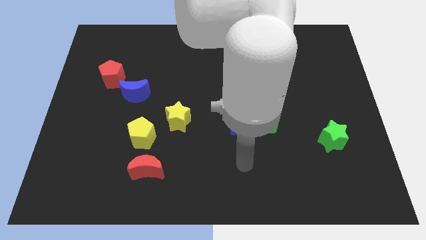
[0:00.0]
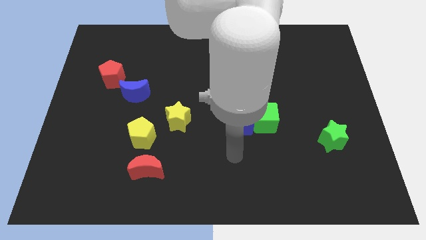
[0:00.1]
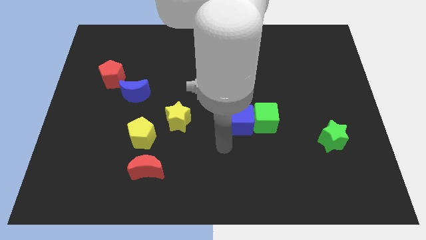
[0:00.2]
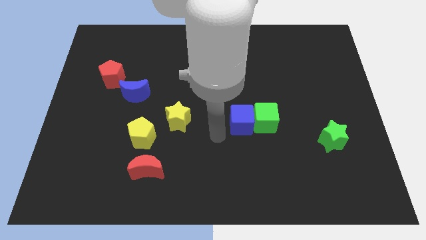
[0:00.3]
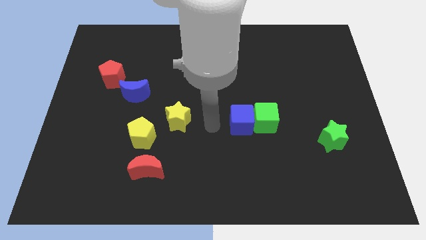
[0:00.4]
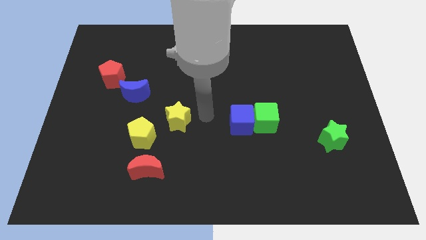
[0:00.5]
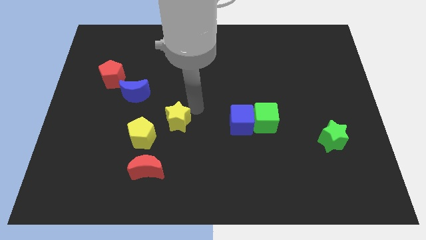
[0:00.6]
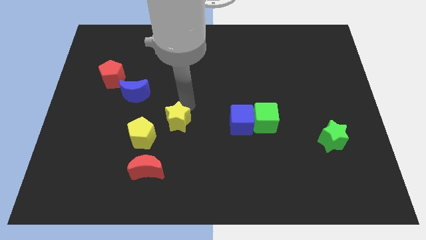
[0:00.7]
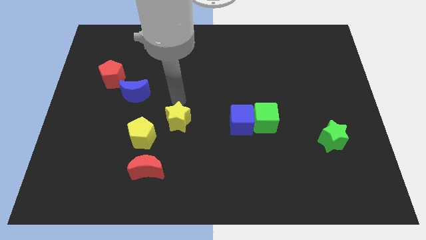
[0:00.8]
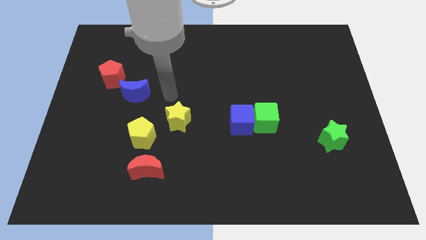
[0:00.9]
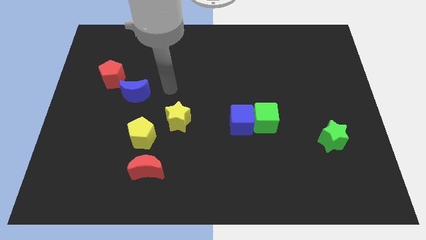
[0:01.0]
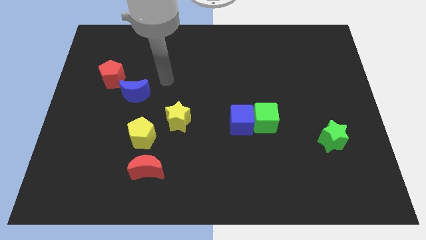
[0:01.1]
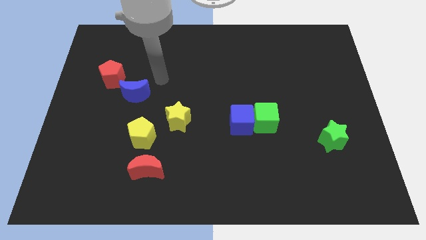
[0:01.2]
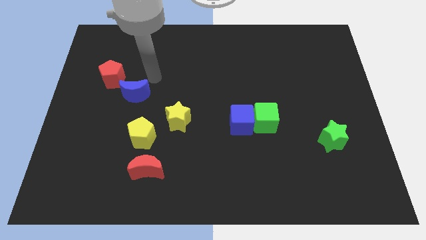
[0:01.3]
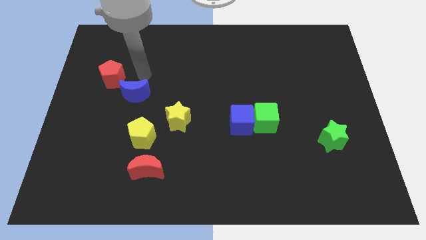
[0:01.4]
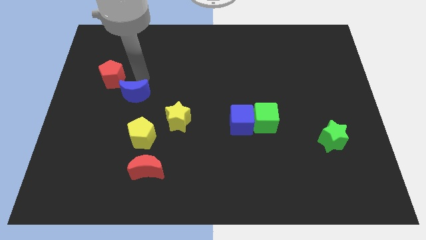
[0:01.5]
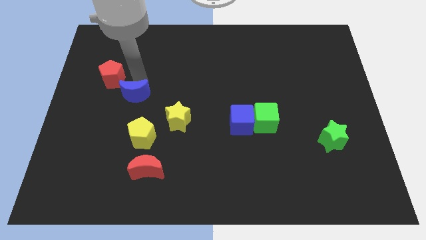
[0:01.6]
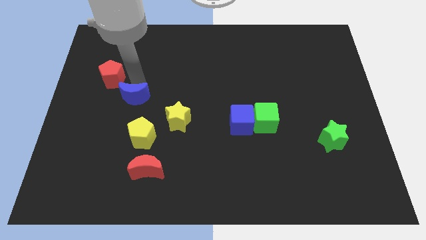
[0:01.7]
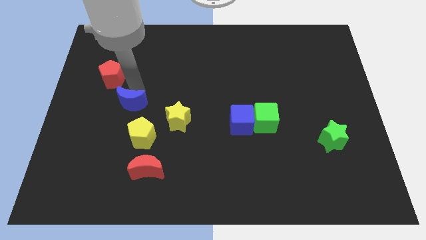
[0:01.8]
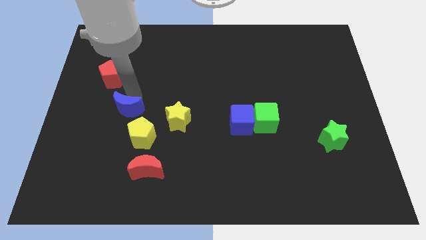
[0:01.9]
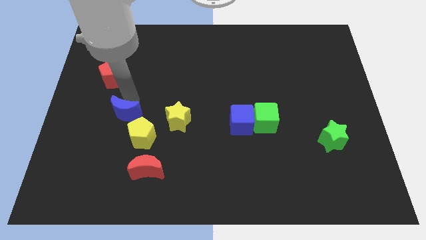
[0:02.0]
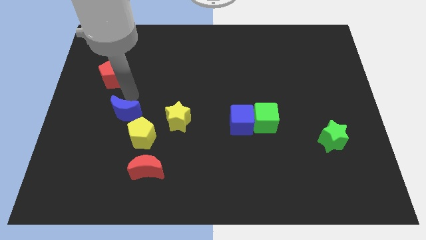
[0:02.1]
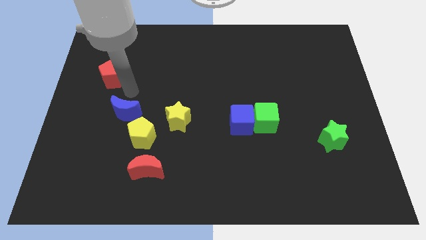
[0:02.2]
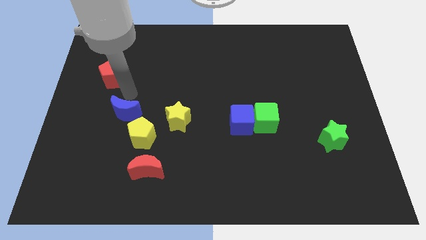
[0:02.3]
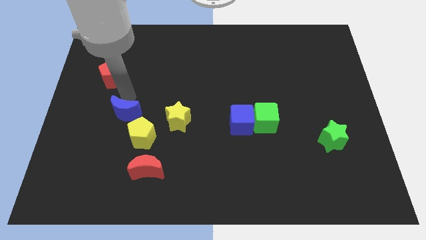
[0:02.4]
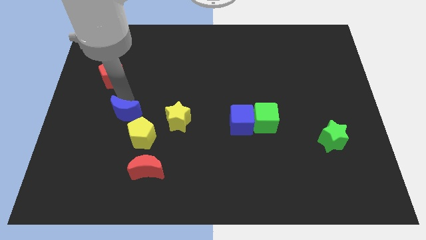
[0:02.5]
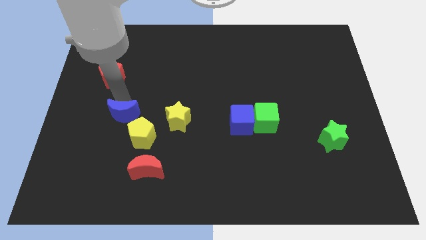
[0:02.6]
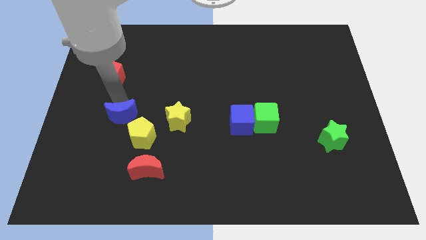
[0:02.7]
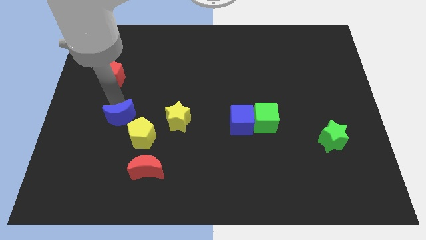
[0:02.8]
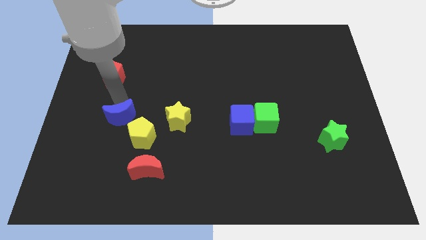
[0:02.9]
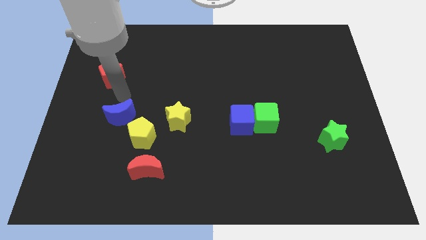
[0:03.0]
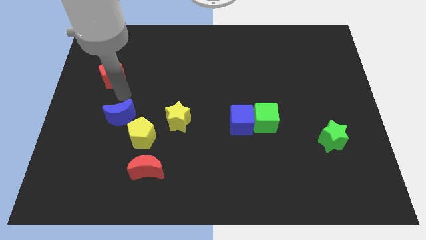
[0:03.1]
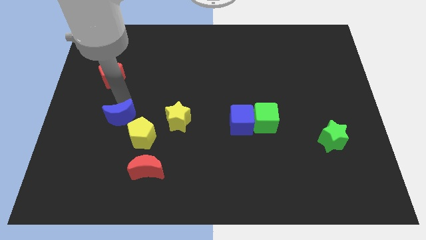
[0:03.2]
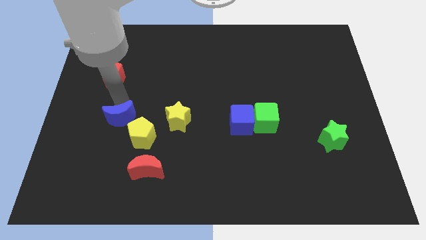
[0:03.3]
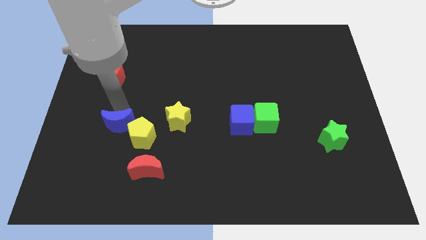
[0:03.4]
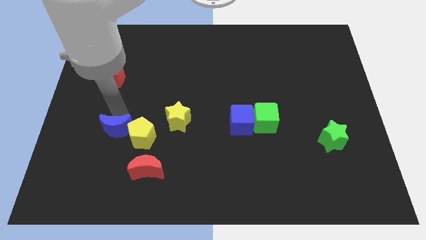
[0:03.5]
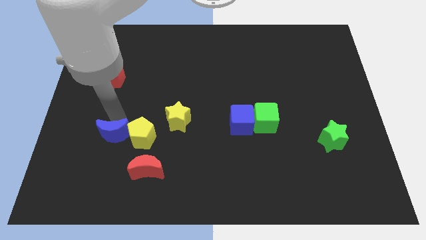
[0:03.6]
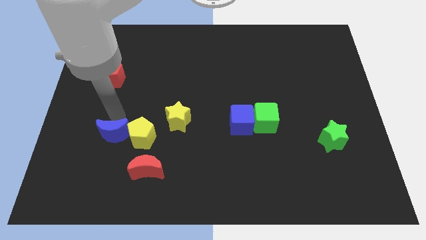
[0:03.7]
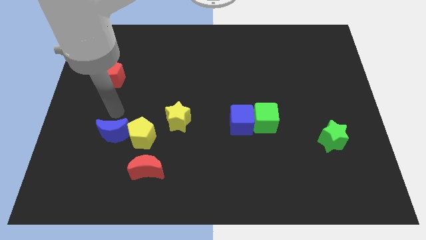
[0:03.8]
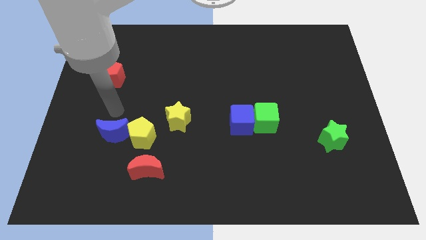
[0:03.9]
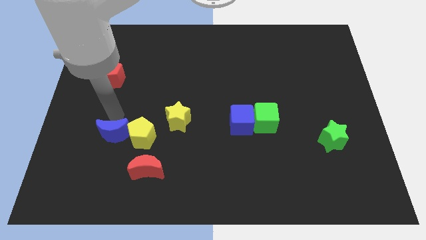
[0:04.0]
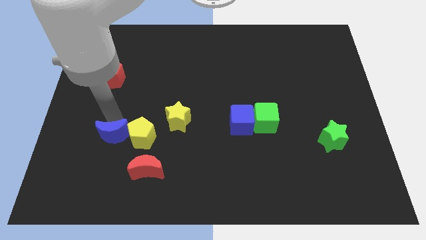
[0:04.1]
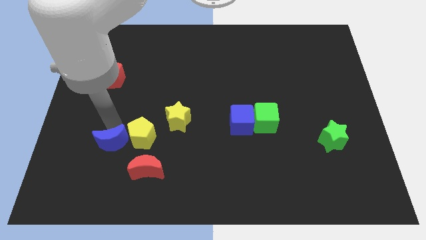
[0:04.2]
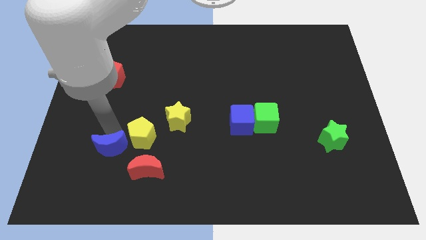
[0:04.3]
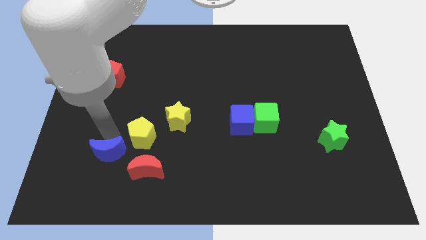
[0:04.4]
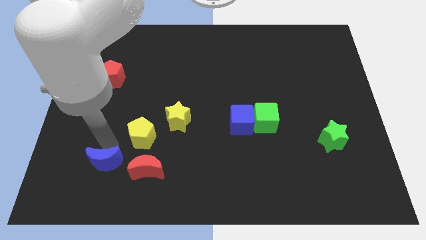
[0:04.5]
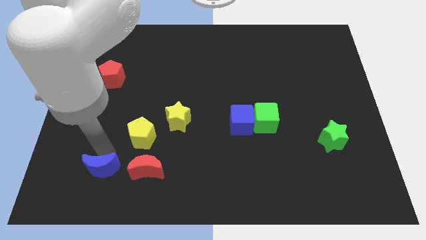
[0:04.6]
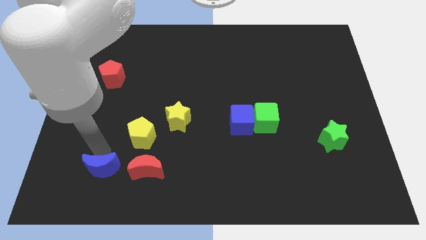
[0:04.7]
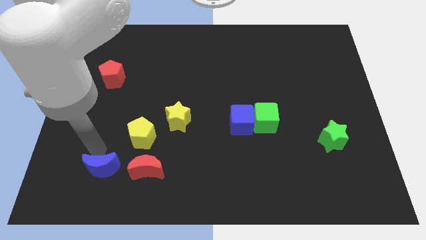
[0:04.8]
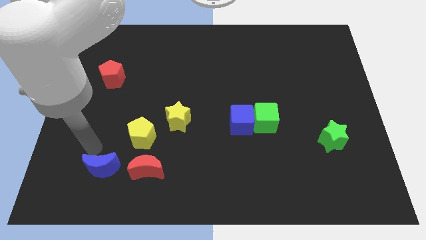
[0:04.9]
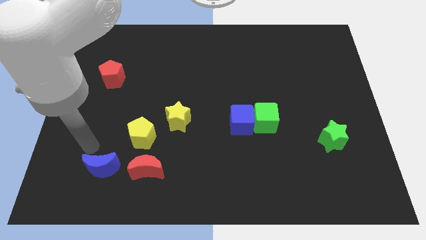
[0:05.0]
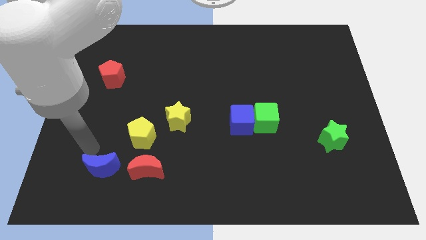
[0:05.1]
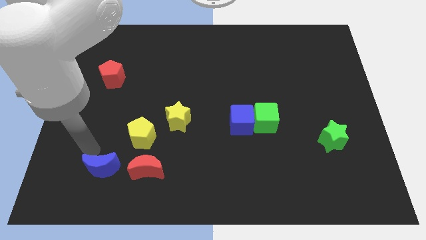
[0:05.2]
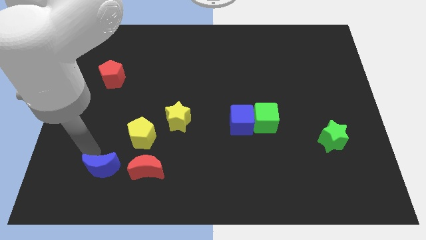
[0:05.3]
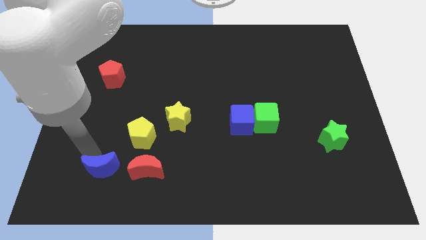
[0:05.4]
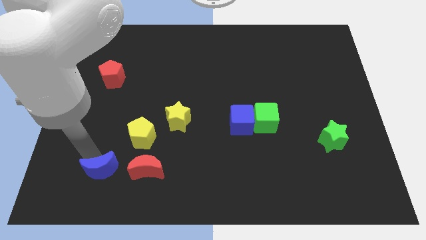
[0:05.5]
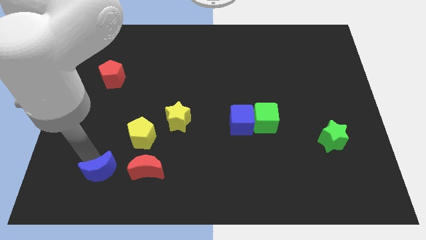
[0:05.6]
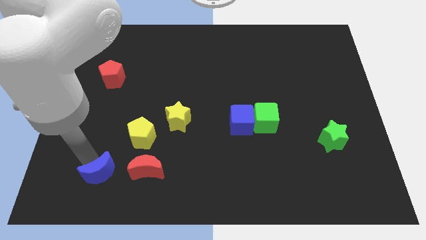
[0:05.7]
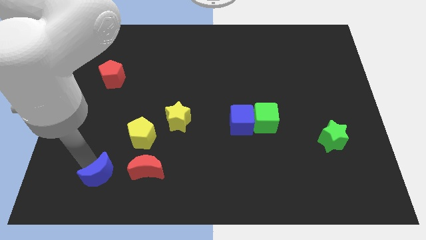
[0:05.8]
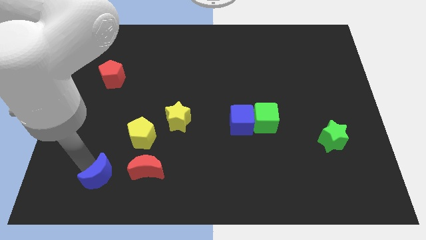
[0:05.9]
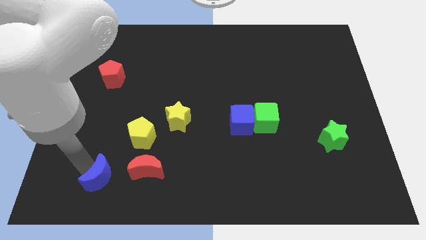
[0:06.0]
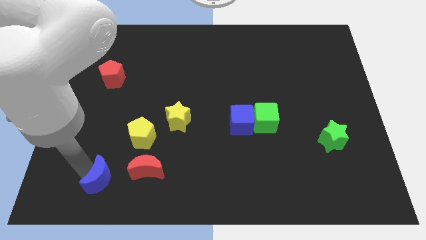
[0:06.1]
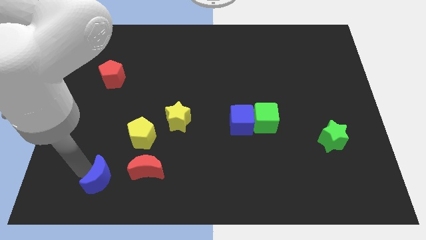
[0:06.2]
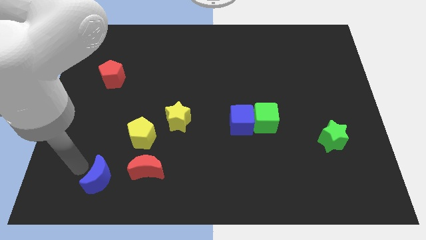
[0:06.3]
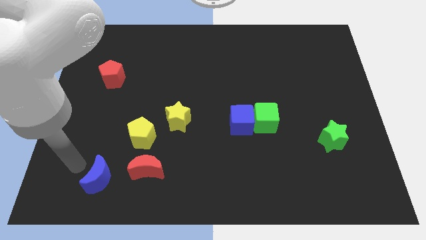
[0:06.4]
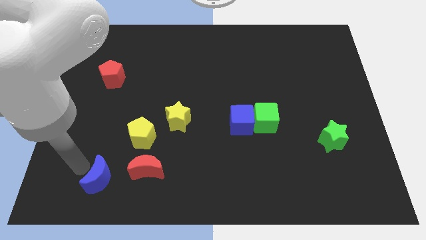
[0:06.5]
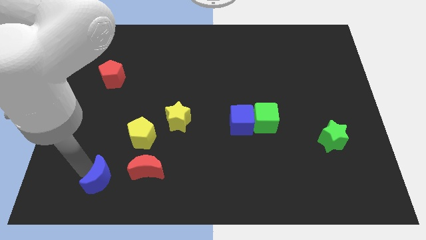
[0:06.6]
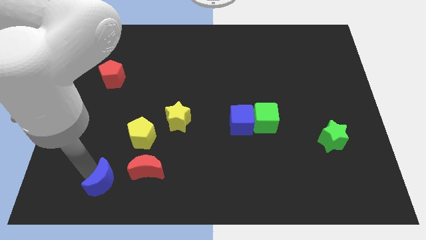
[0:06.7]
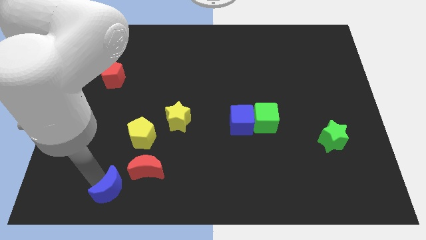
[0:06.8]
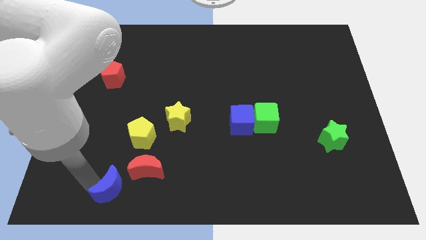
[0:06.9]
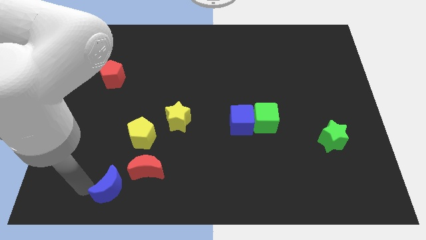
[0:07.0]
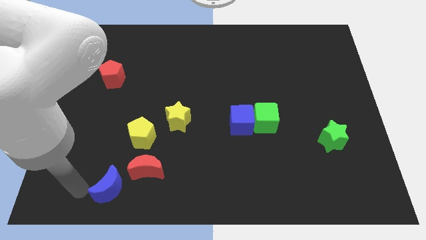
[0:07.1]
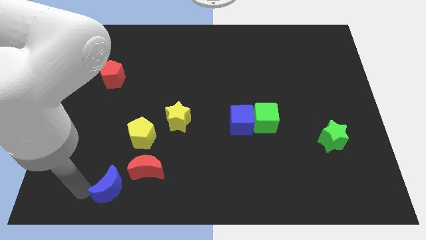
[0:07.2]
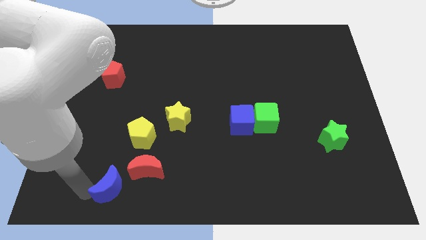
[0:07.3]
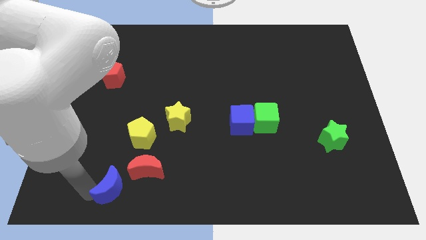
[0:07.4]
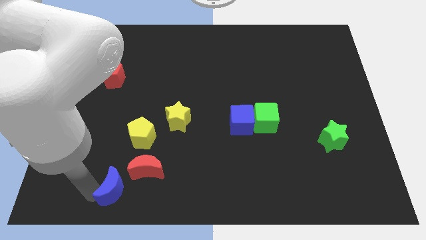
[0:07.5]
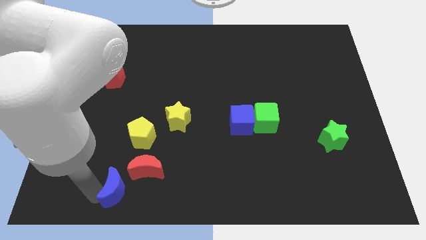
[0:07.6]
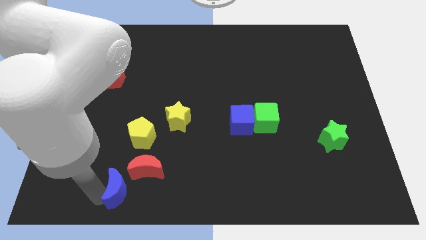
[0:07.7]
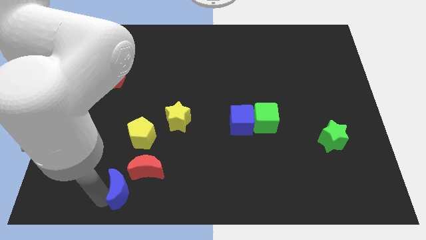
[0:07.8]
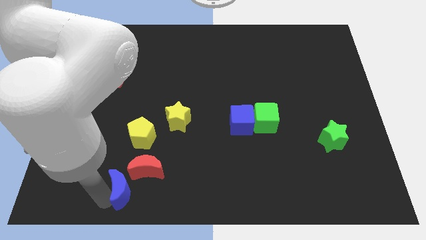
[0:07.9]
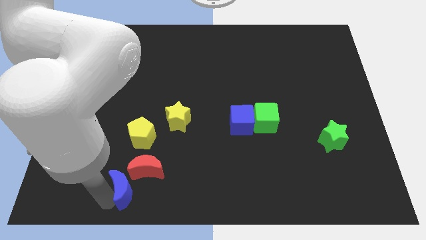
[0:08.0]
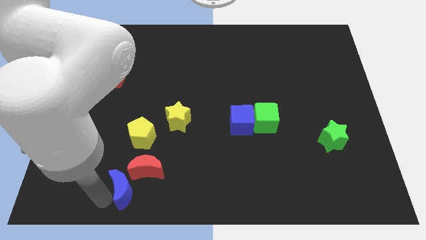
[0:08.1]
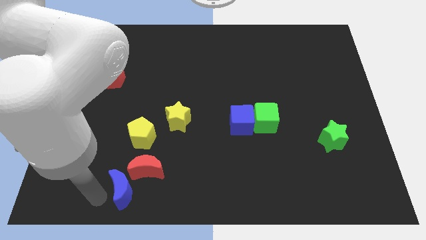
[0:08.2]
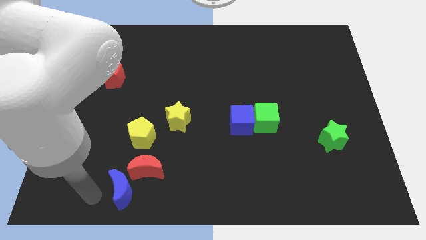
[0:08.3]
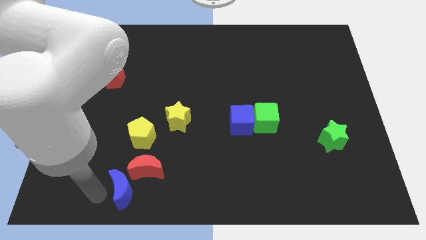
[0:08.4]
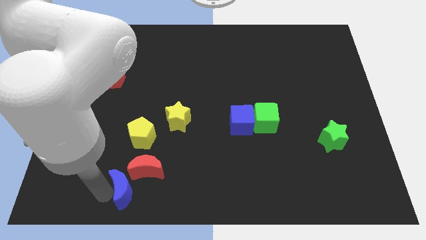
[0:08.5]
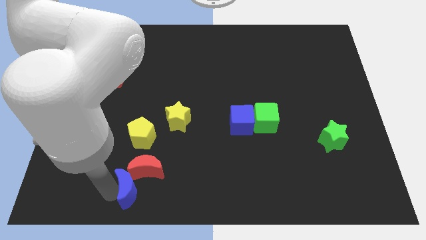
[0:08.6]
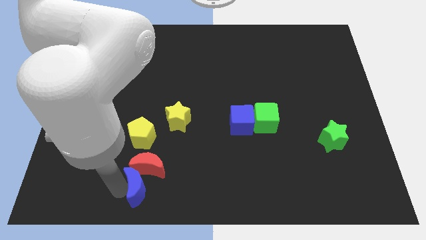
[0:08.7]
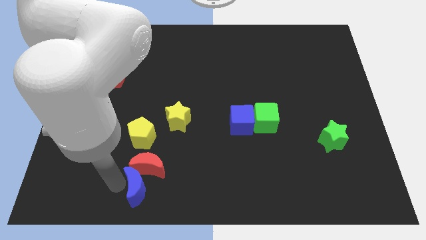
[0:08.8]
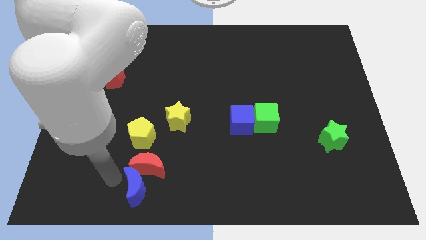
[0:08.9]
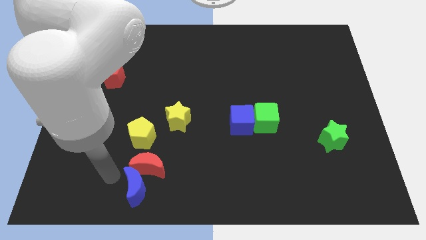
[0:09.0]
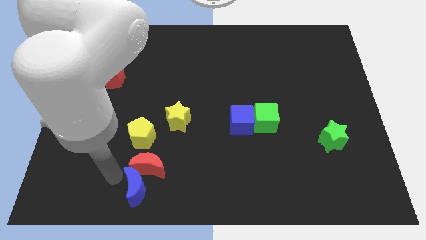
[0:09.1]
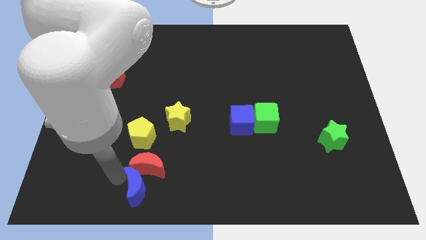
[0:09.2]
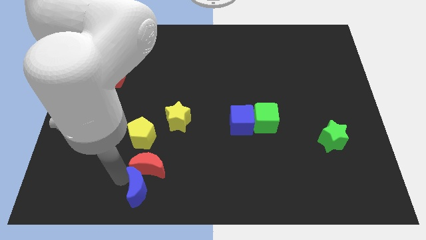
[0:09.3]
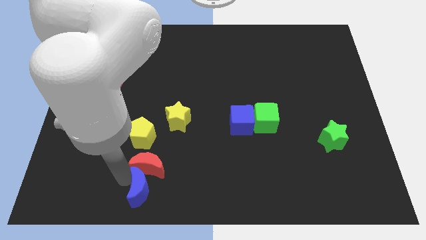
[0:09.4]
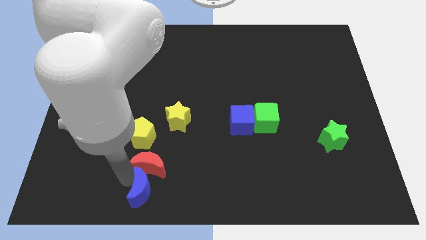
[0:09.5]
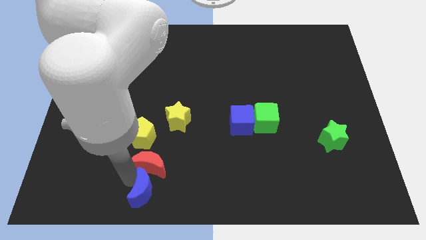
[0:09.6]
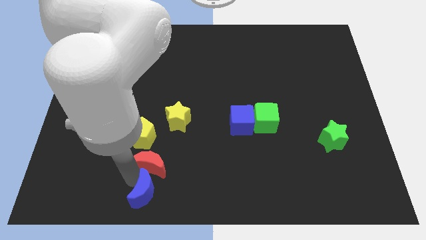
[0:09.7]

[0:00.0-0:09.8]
slide the blue moon to the bottom side
